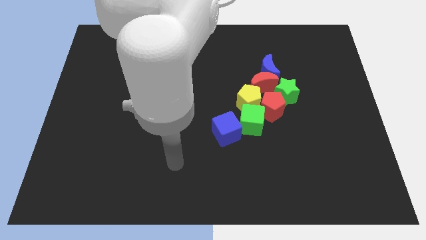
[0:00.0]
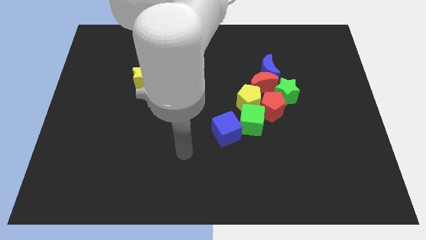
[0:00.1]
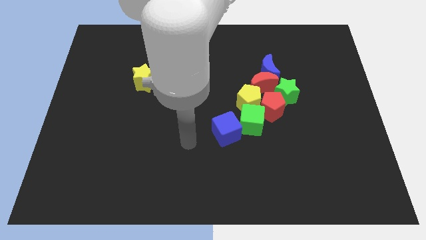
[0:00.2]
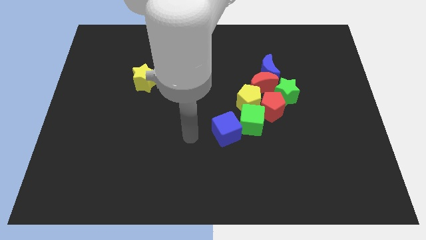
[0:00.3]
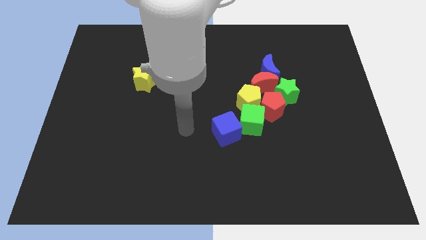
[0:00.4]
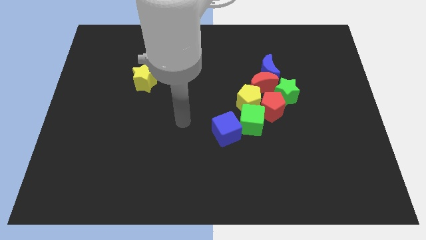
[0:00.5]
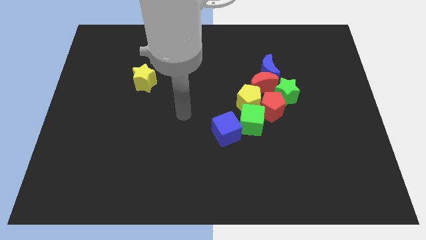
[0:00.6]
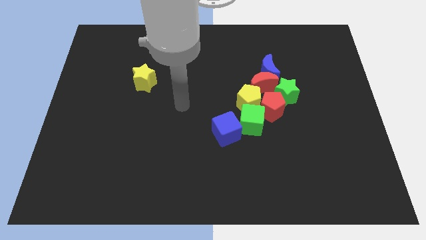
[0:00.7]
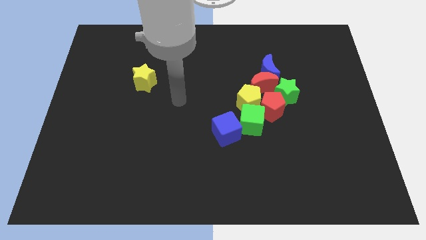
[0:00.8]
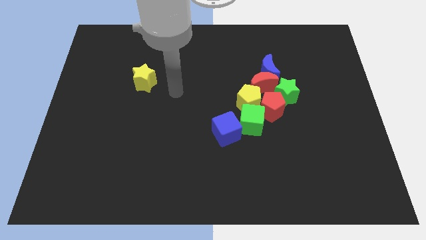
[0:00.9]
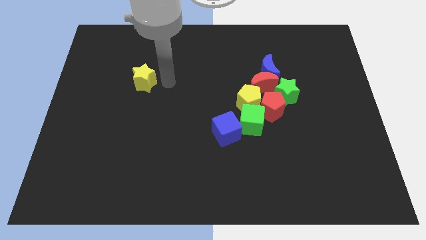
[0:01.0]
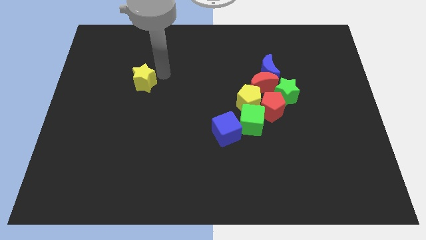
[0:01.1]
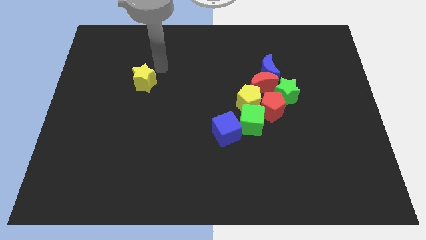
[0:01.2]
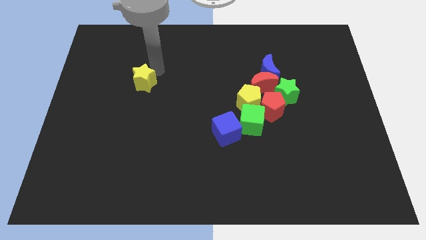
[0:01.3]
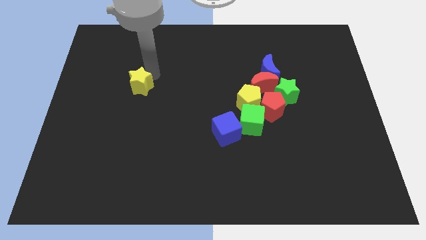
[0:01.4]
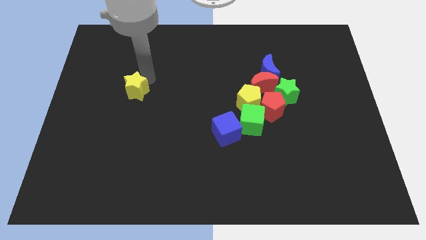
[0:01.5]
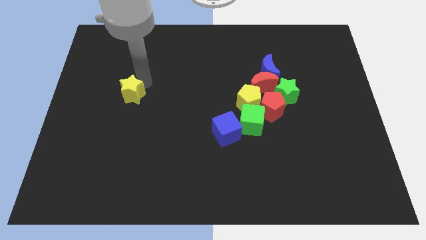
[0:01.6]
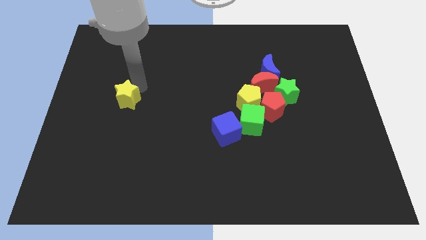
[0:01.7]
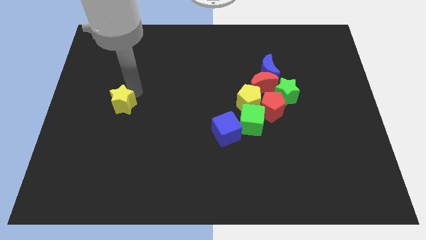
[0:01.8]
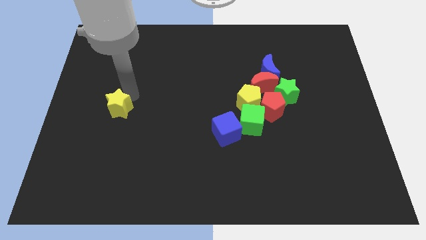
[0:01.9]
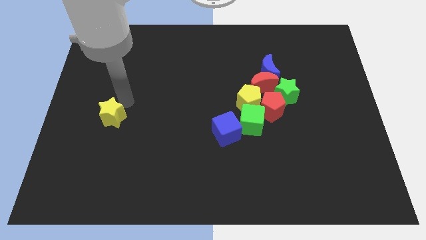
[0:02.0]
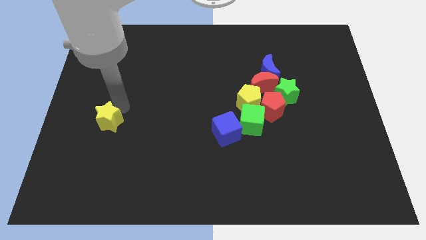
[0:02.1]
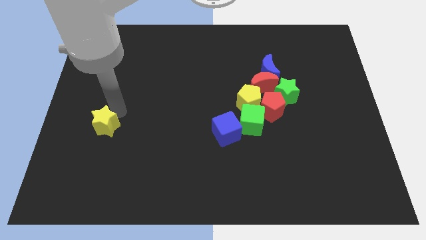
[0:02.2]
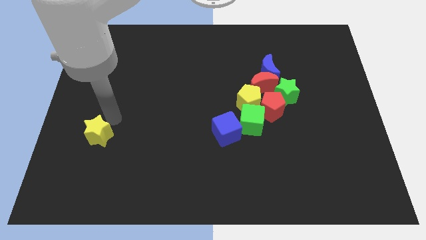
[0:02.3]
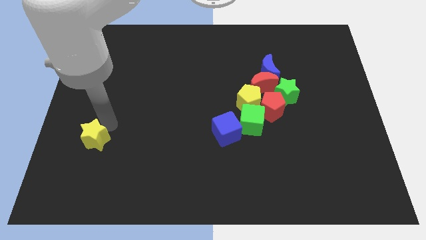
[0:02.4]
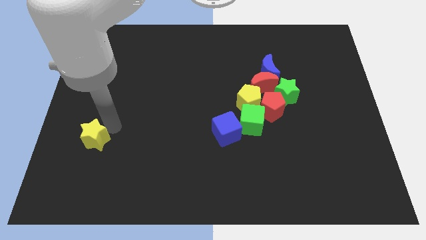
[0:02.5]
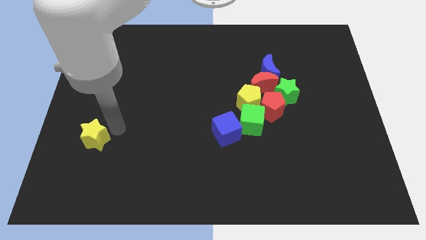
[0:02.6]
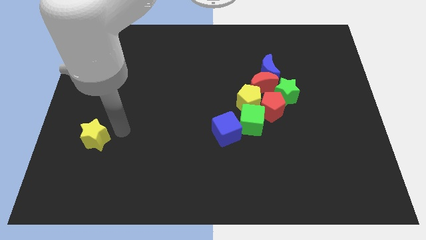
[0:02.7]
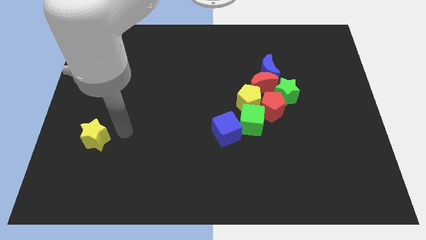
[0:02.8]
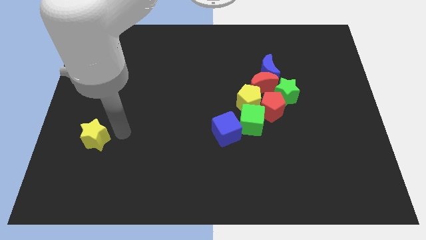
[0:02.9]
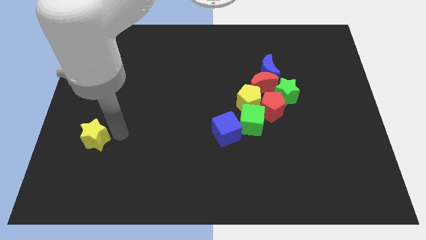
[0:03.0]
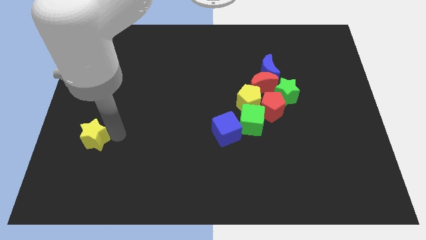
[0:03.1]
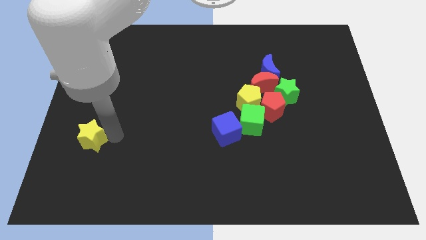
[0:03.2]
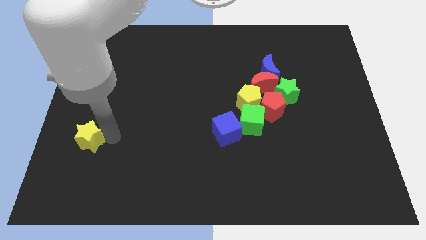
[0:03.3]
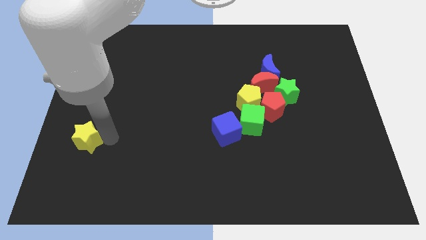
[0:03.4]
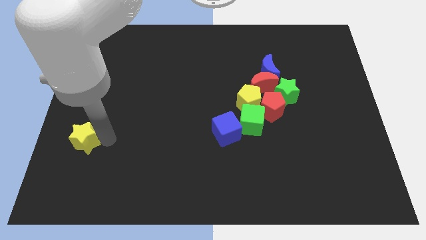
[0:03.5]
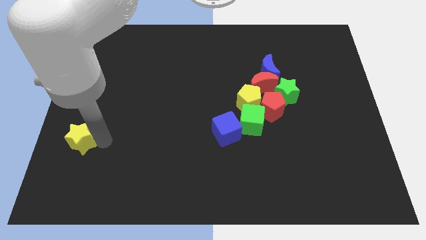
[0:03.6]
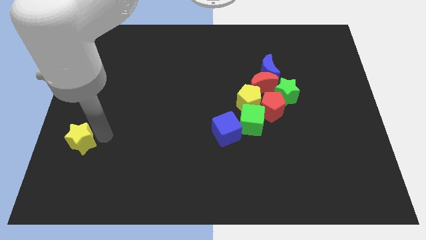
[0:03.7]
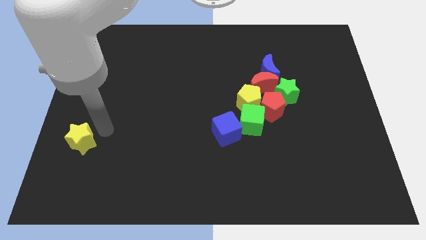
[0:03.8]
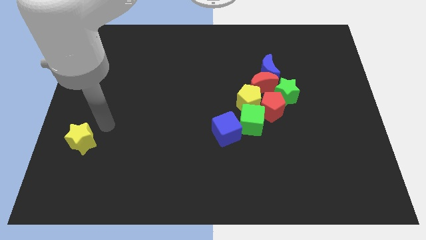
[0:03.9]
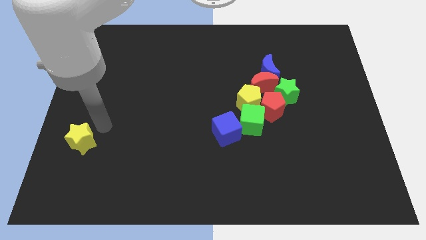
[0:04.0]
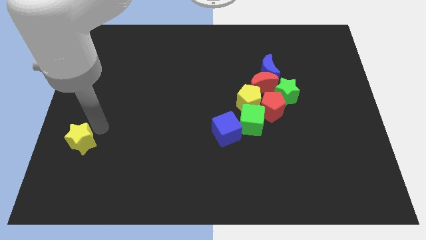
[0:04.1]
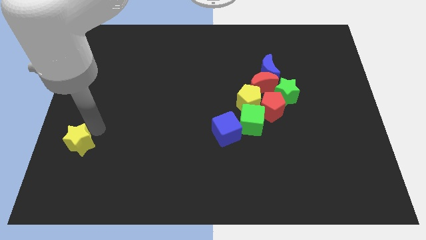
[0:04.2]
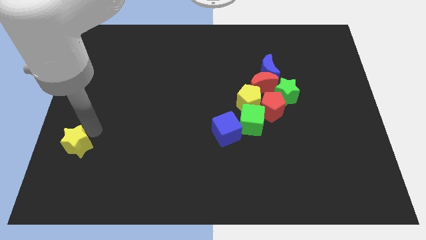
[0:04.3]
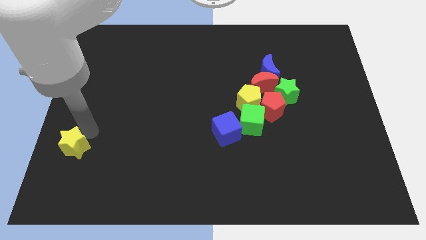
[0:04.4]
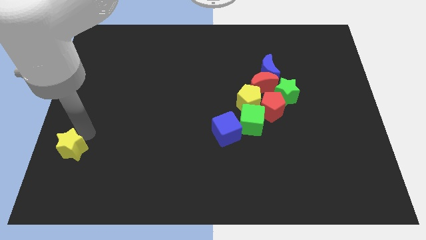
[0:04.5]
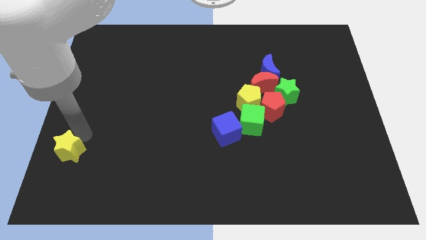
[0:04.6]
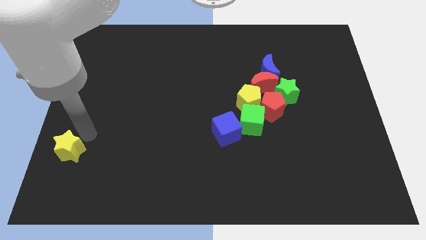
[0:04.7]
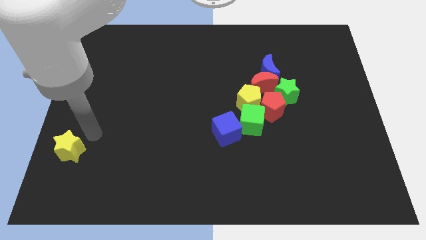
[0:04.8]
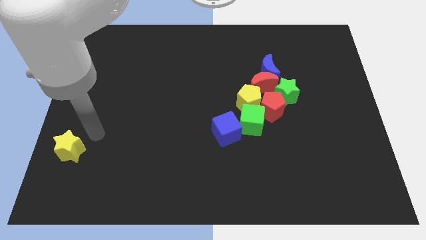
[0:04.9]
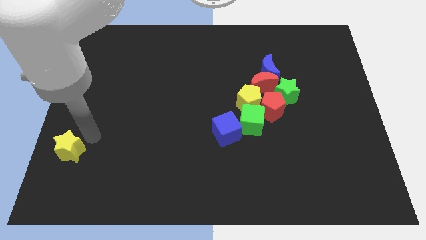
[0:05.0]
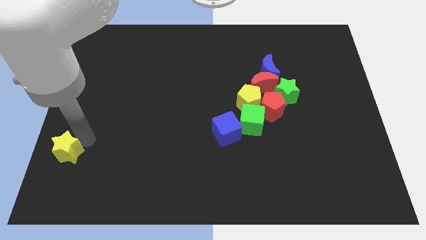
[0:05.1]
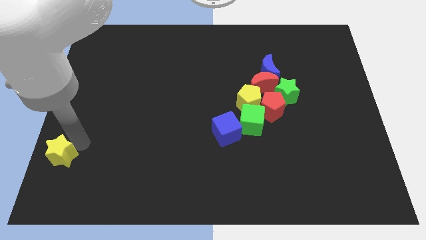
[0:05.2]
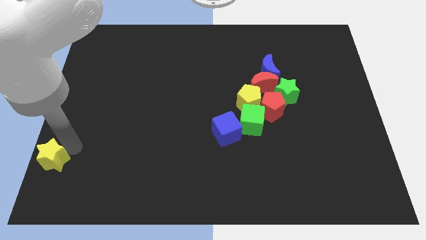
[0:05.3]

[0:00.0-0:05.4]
push the yellow star to the bottom left corner

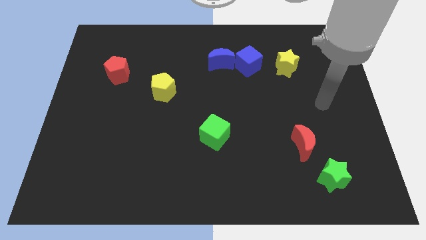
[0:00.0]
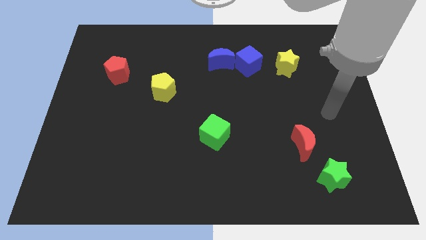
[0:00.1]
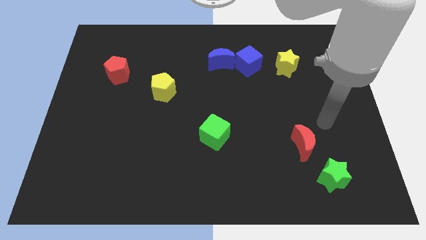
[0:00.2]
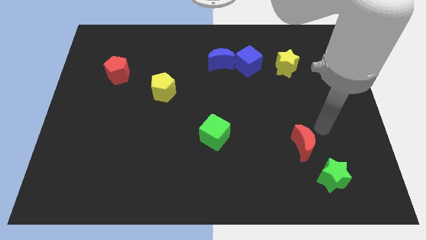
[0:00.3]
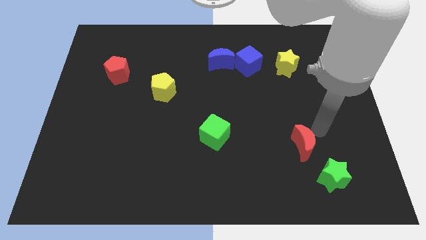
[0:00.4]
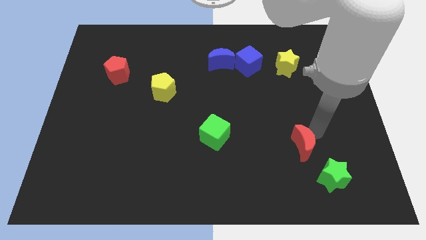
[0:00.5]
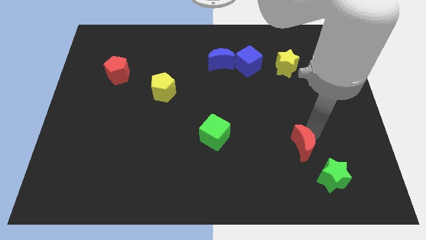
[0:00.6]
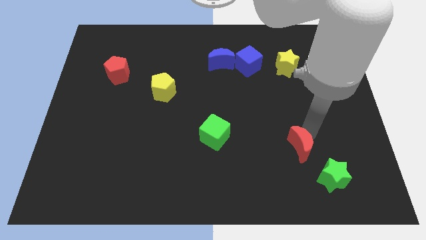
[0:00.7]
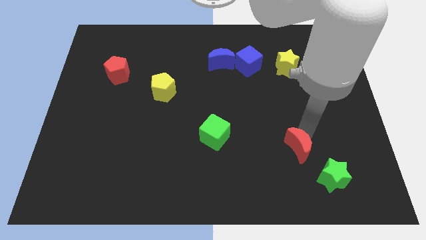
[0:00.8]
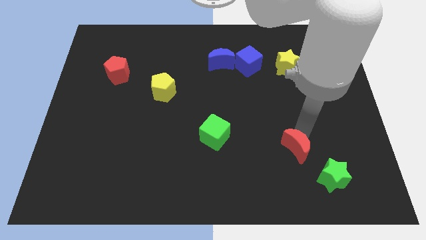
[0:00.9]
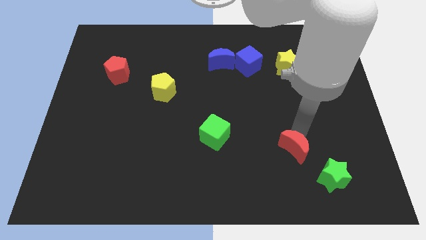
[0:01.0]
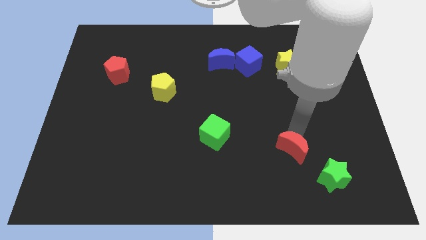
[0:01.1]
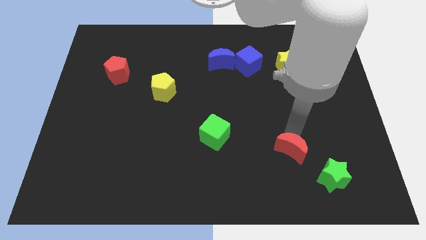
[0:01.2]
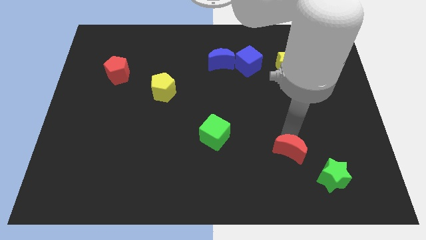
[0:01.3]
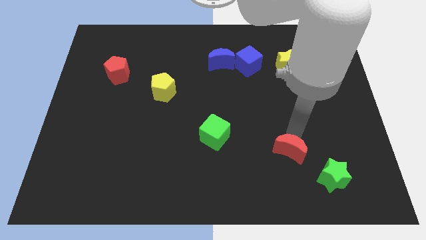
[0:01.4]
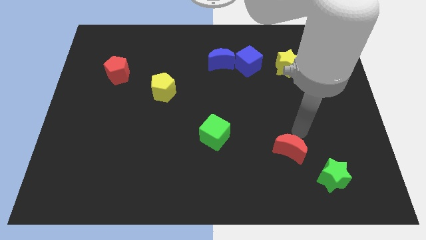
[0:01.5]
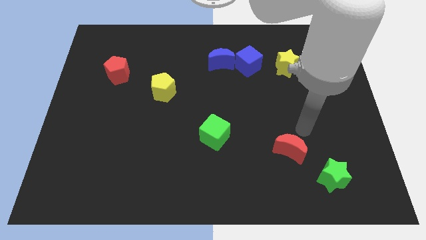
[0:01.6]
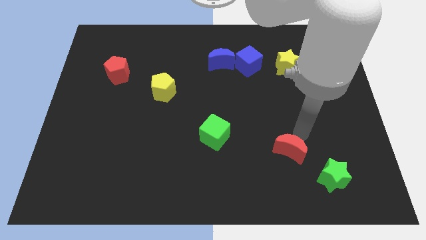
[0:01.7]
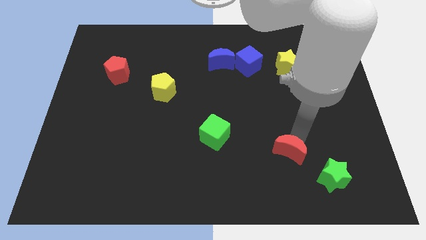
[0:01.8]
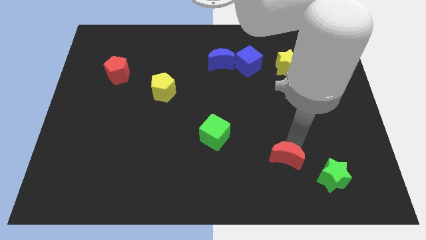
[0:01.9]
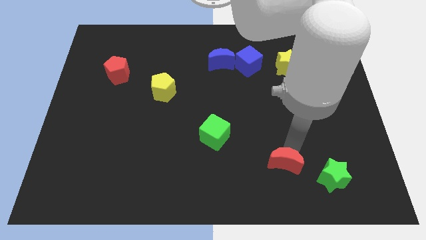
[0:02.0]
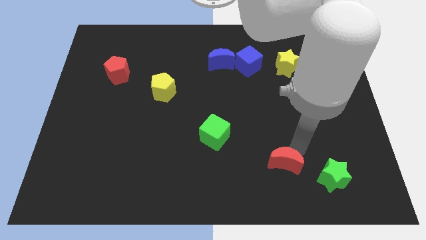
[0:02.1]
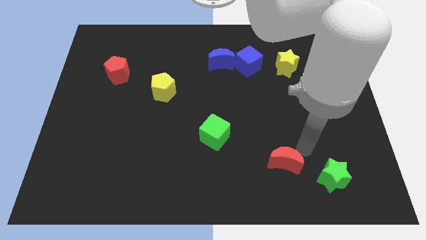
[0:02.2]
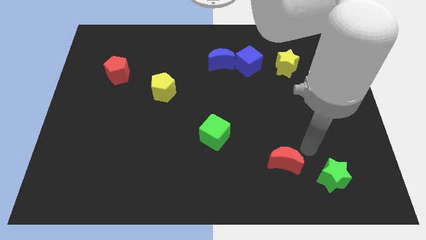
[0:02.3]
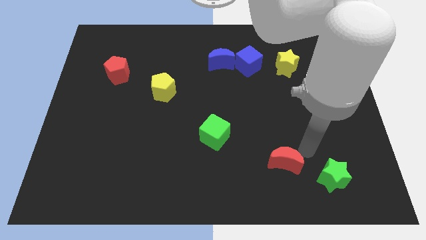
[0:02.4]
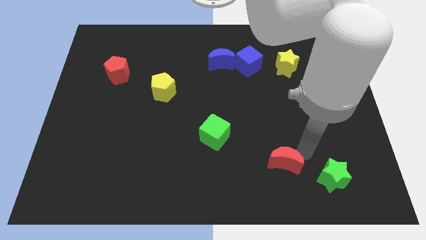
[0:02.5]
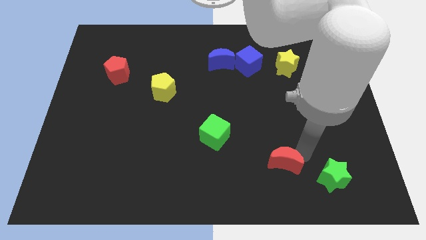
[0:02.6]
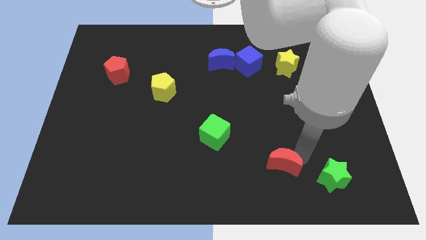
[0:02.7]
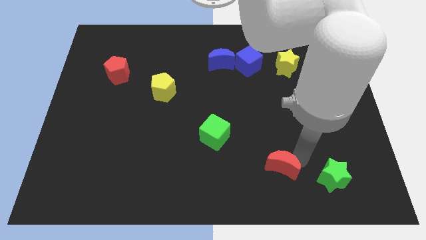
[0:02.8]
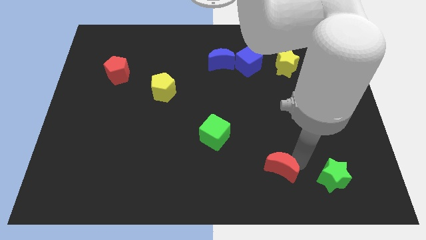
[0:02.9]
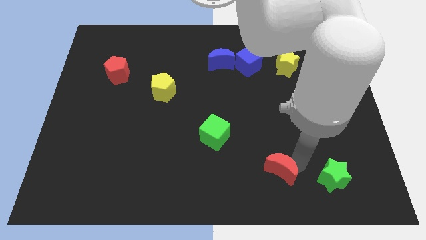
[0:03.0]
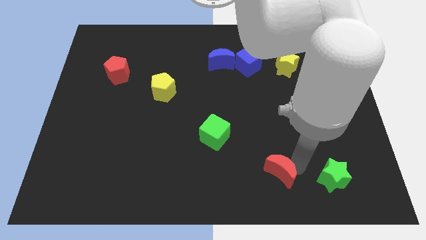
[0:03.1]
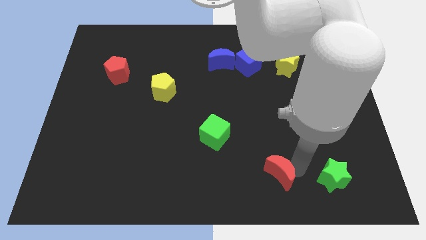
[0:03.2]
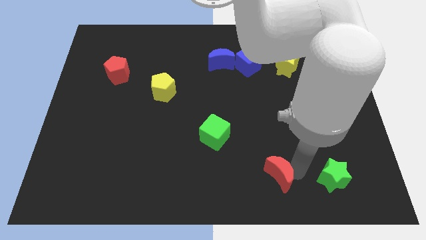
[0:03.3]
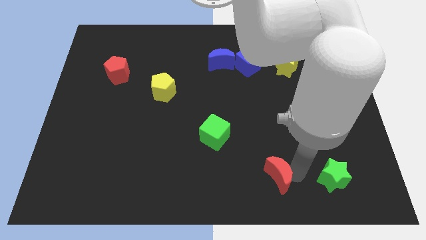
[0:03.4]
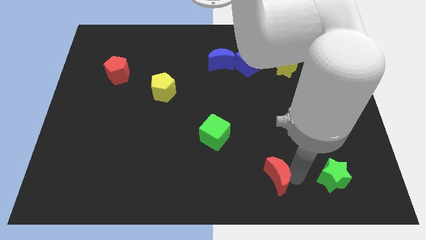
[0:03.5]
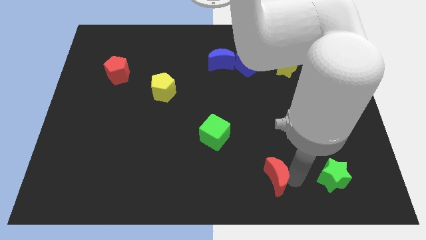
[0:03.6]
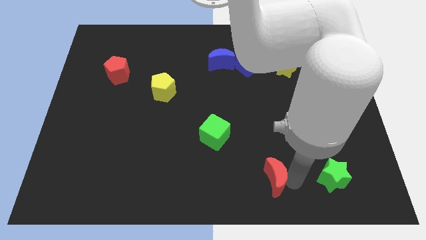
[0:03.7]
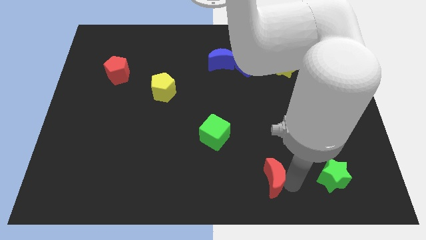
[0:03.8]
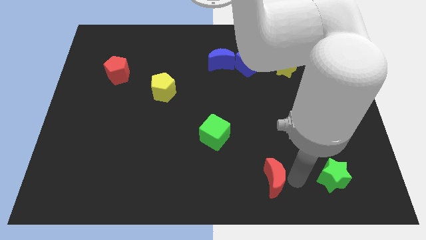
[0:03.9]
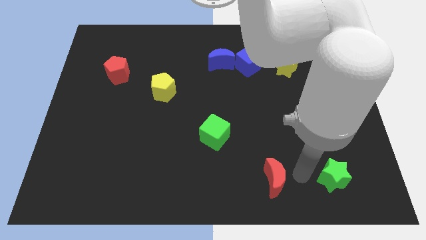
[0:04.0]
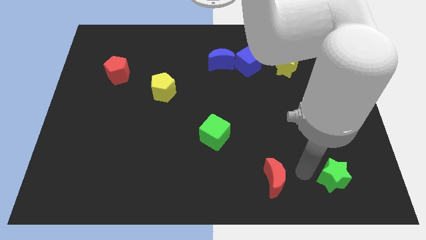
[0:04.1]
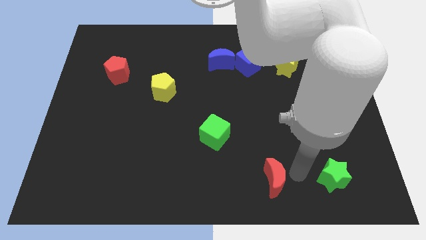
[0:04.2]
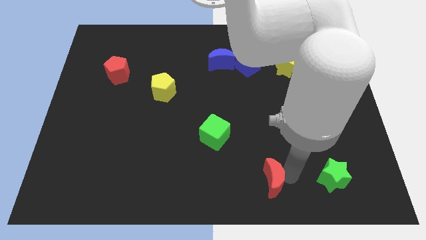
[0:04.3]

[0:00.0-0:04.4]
move the red moon to the bottom
